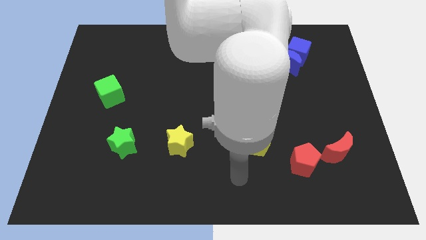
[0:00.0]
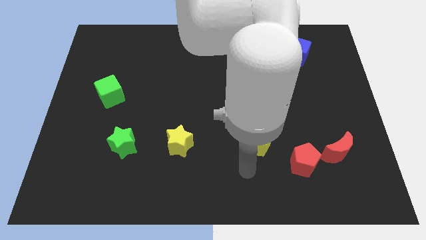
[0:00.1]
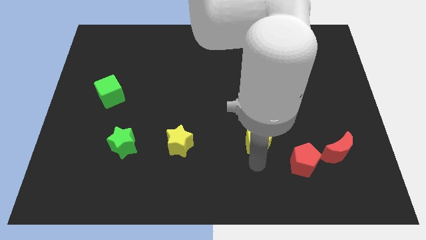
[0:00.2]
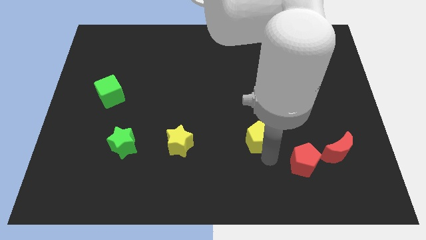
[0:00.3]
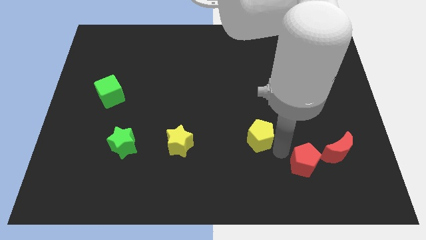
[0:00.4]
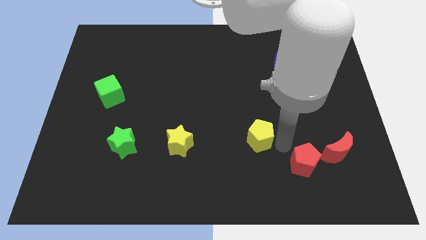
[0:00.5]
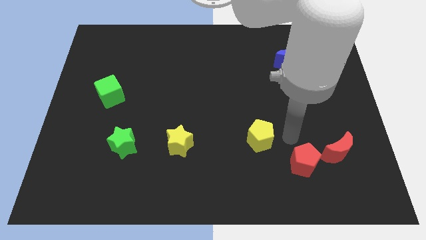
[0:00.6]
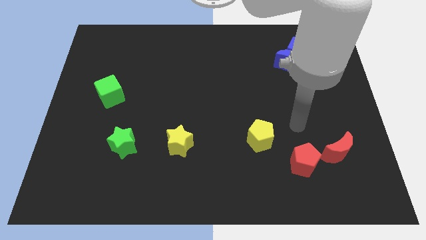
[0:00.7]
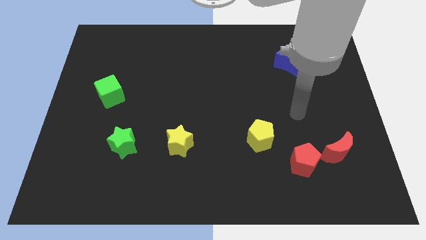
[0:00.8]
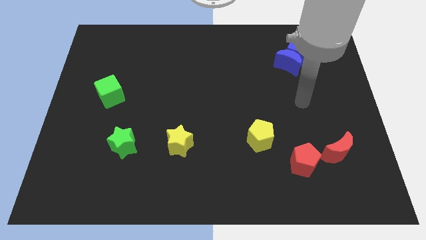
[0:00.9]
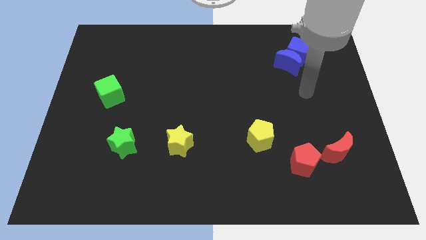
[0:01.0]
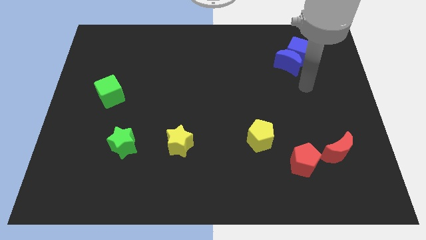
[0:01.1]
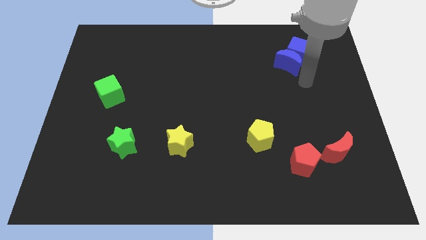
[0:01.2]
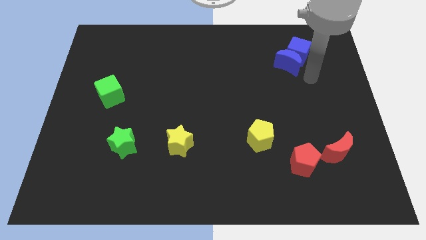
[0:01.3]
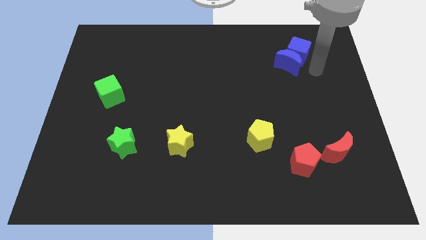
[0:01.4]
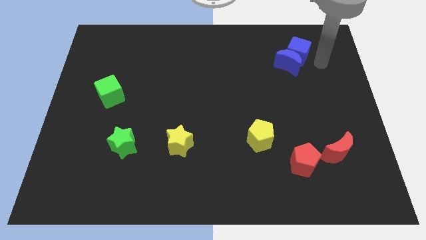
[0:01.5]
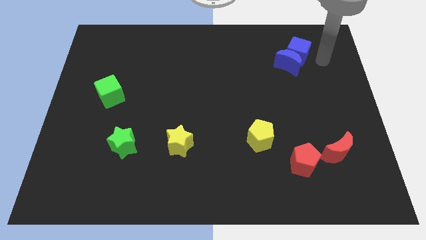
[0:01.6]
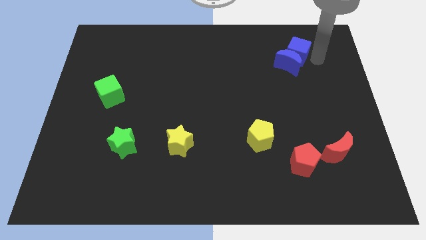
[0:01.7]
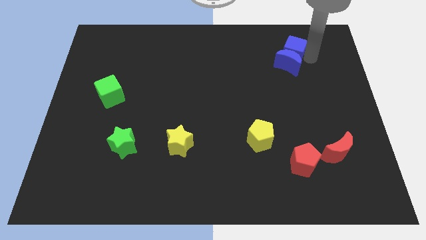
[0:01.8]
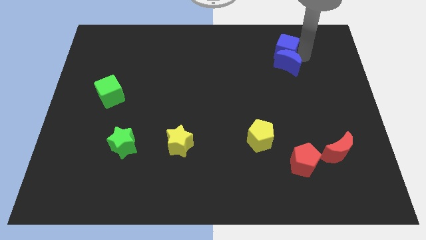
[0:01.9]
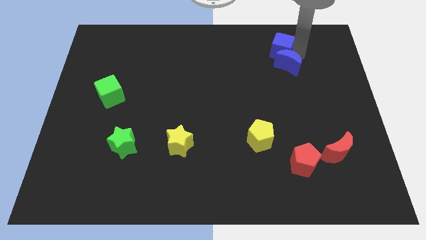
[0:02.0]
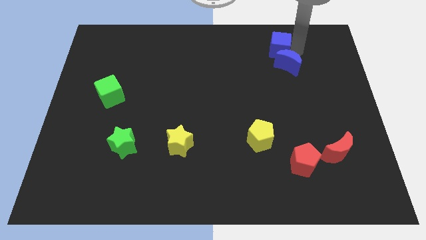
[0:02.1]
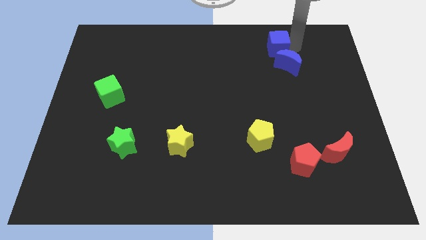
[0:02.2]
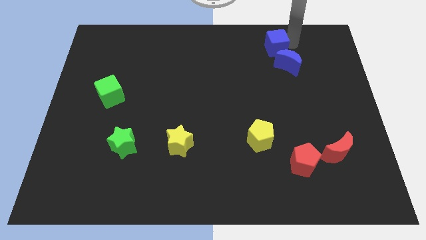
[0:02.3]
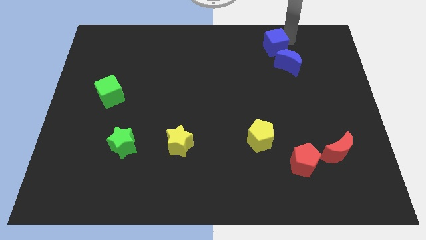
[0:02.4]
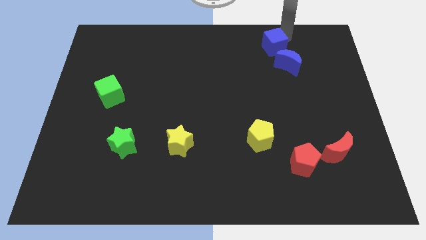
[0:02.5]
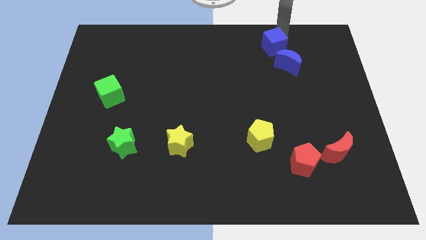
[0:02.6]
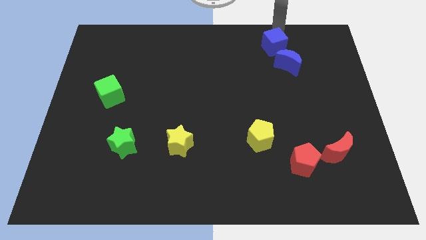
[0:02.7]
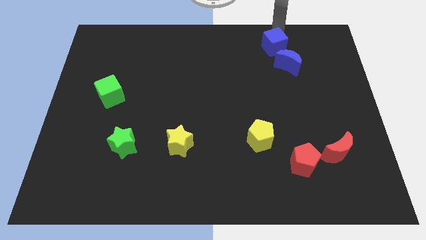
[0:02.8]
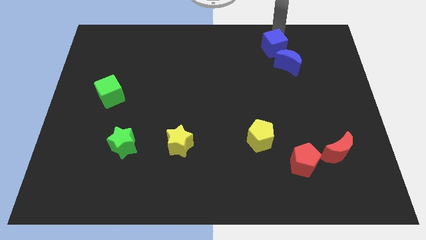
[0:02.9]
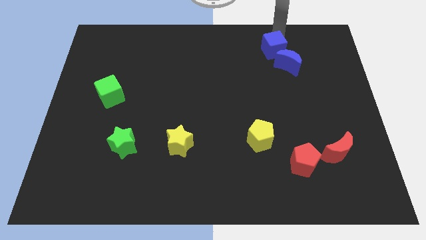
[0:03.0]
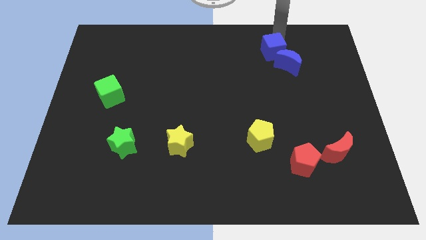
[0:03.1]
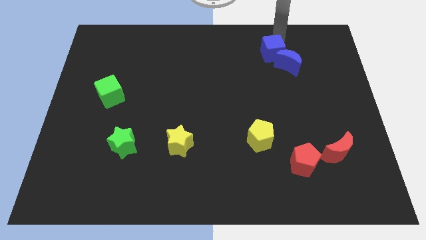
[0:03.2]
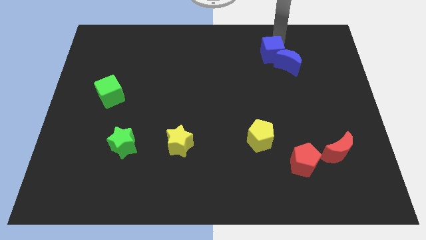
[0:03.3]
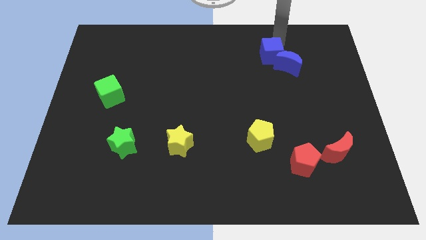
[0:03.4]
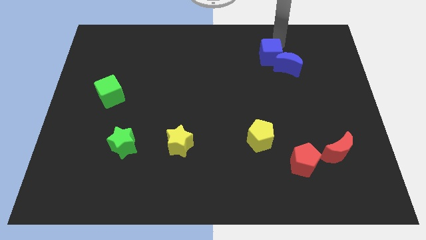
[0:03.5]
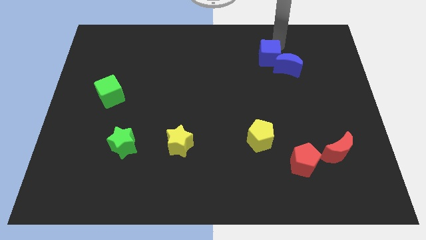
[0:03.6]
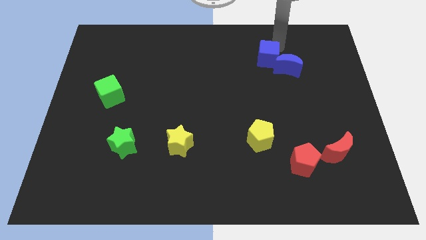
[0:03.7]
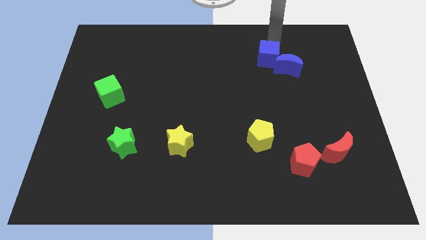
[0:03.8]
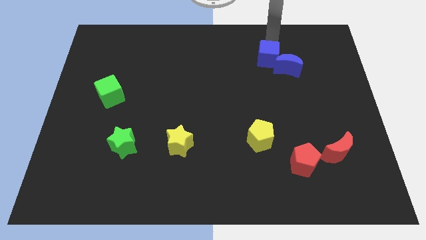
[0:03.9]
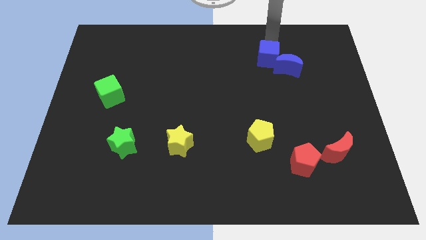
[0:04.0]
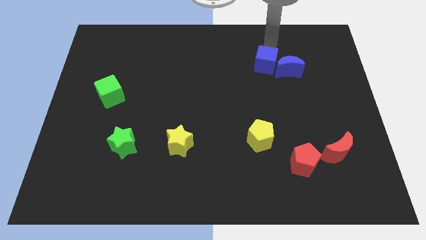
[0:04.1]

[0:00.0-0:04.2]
move the blue cube down and then to the left somewhat

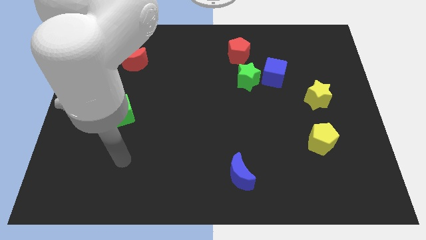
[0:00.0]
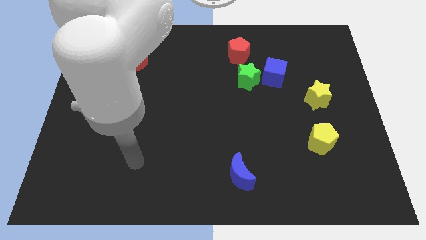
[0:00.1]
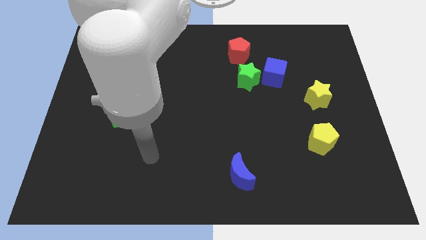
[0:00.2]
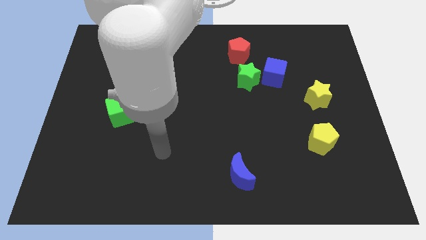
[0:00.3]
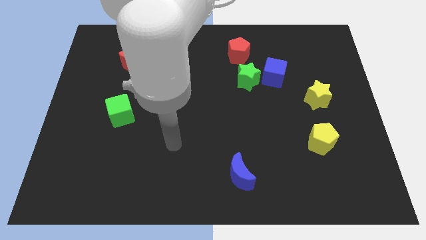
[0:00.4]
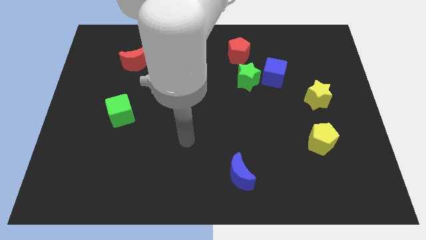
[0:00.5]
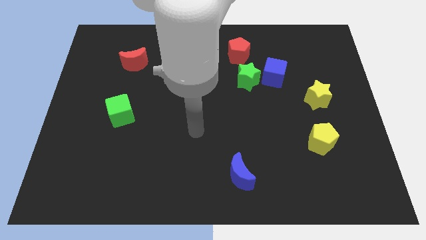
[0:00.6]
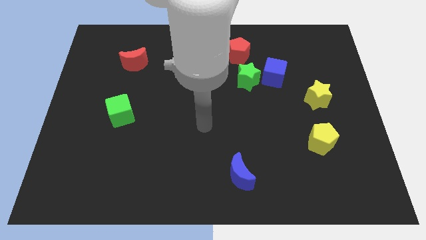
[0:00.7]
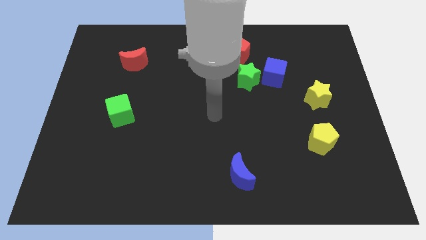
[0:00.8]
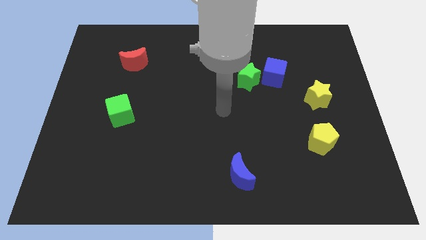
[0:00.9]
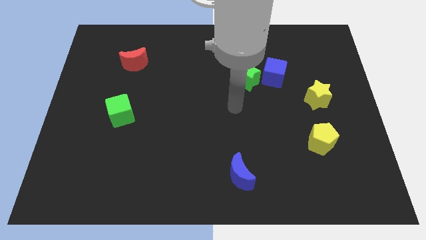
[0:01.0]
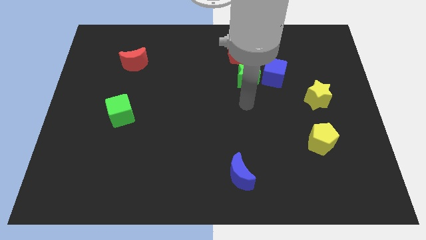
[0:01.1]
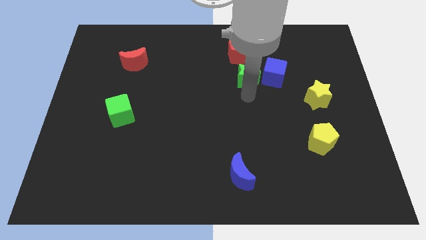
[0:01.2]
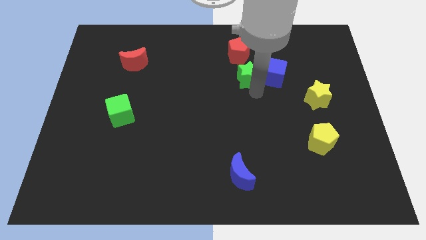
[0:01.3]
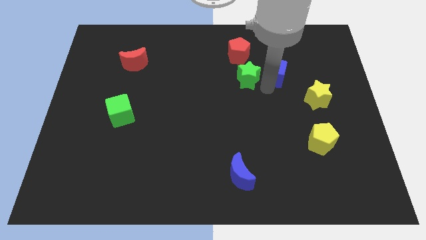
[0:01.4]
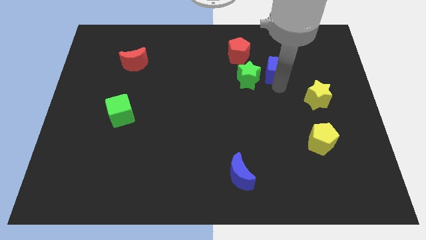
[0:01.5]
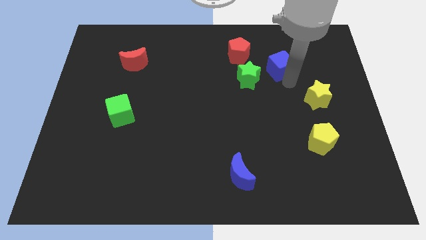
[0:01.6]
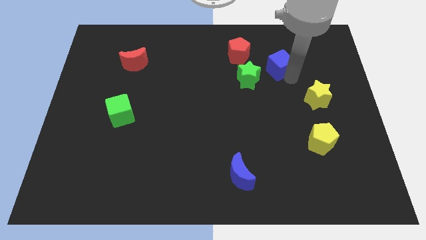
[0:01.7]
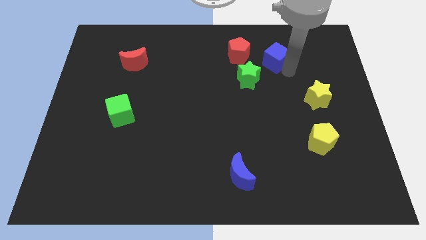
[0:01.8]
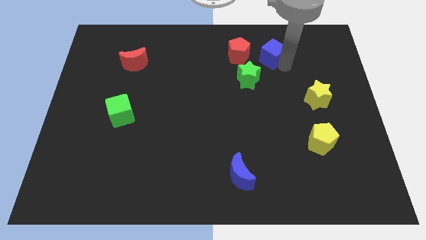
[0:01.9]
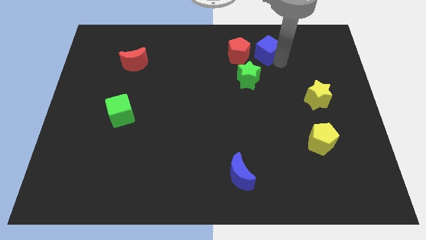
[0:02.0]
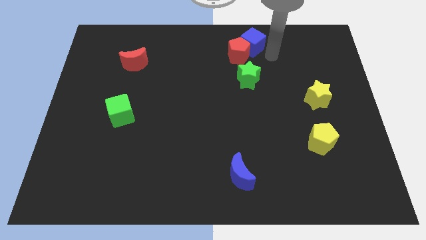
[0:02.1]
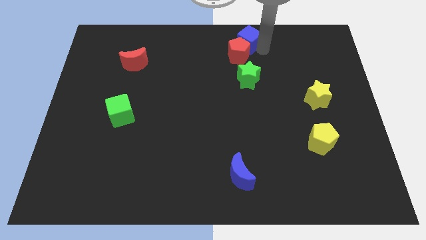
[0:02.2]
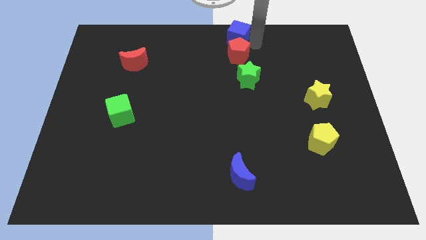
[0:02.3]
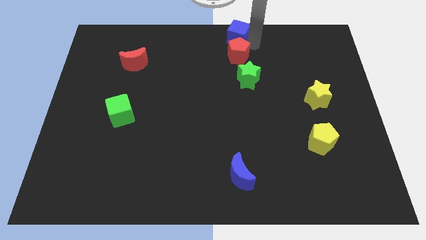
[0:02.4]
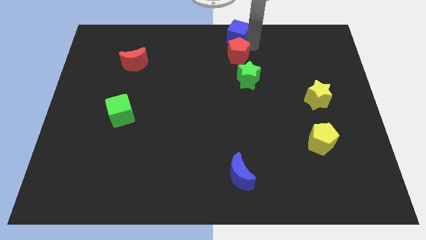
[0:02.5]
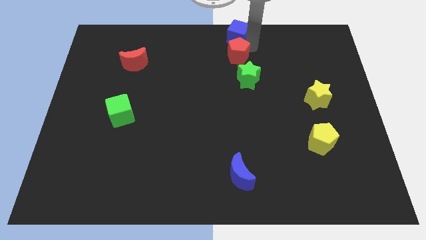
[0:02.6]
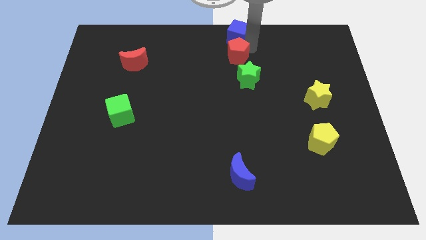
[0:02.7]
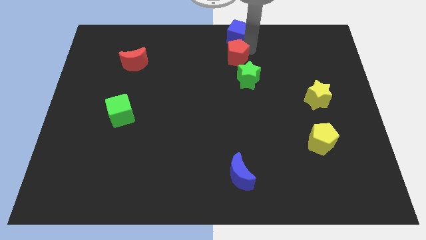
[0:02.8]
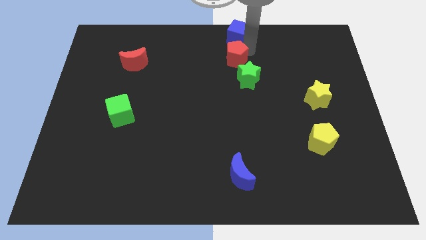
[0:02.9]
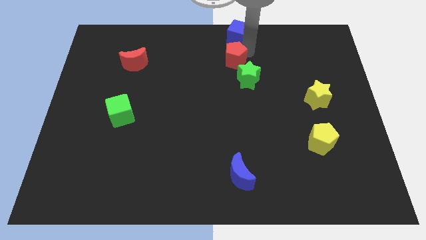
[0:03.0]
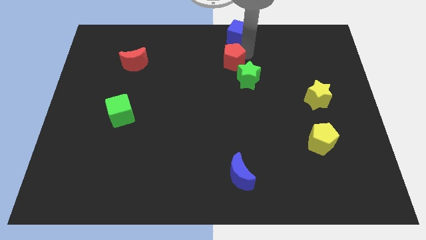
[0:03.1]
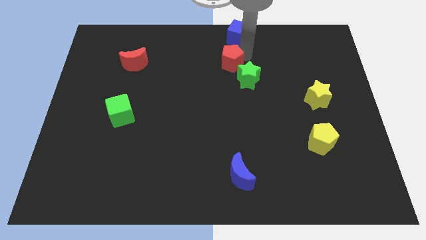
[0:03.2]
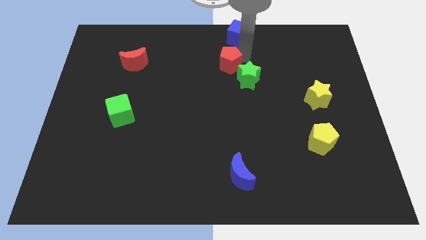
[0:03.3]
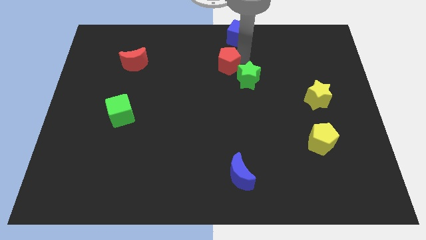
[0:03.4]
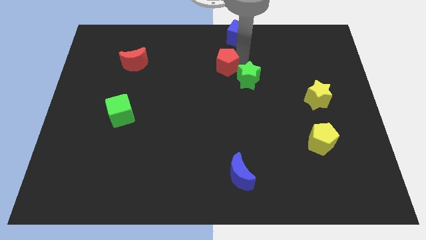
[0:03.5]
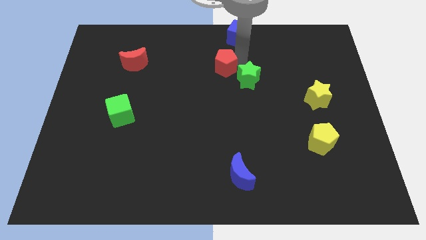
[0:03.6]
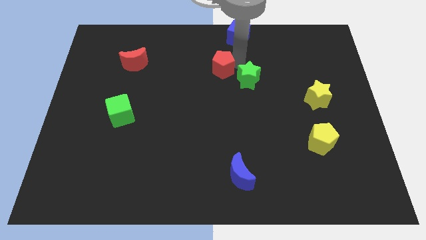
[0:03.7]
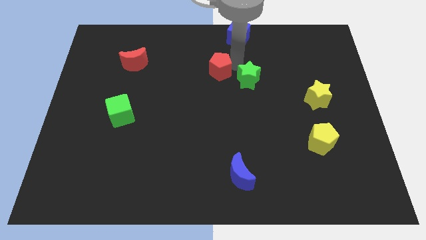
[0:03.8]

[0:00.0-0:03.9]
slightly push the red pentagon down and left diagonally
